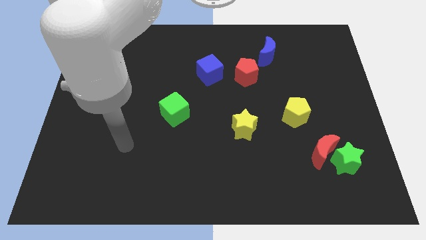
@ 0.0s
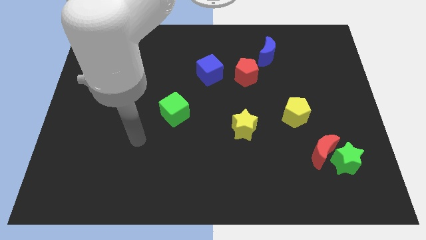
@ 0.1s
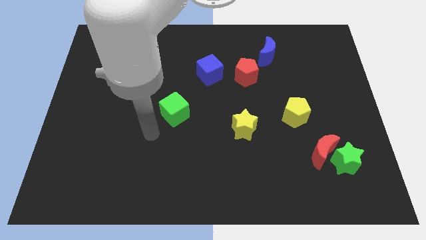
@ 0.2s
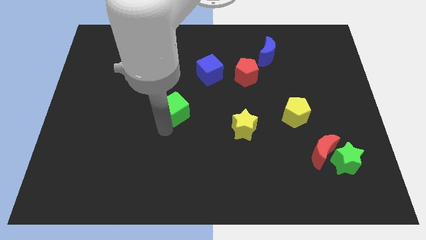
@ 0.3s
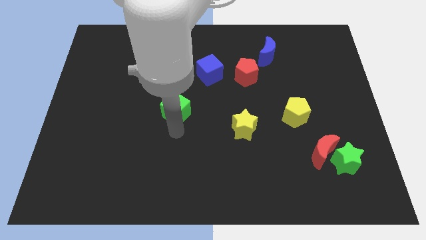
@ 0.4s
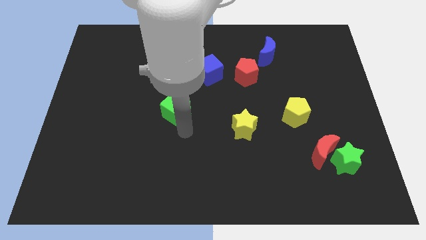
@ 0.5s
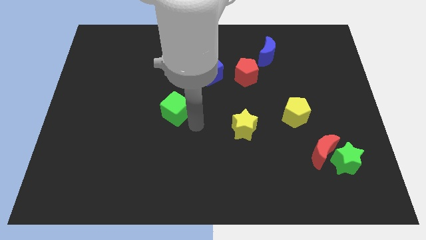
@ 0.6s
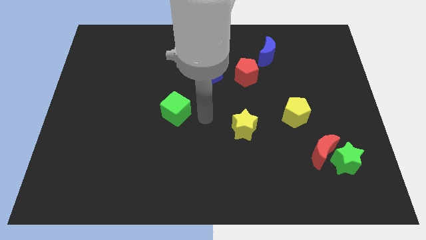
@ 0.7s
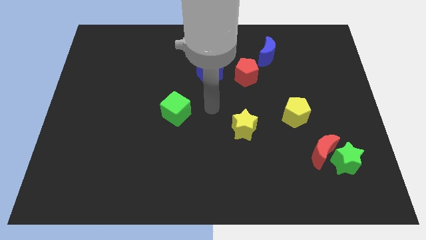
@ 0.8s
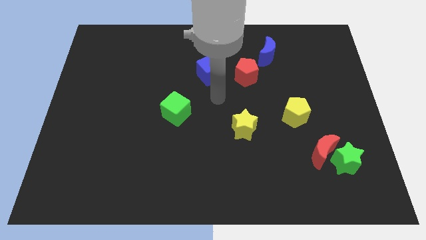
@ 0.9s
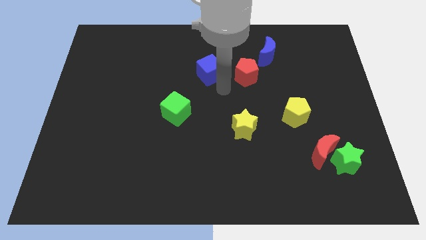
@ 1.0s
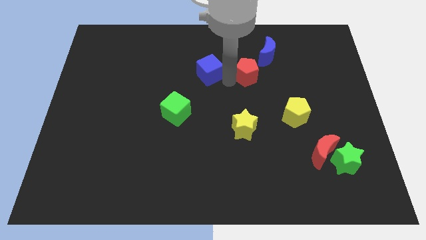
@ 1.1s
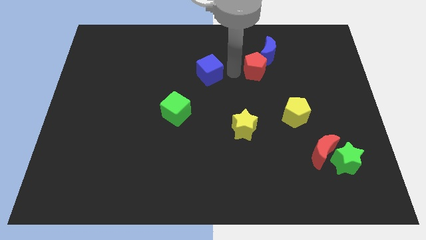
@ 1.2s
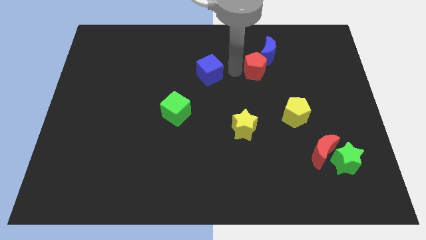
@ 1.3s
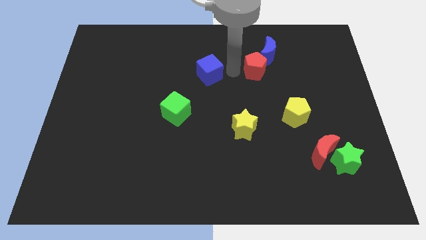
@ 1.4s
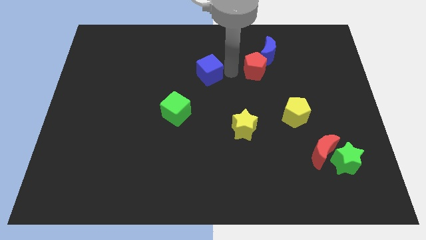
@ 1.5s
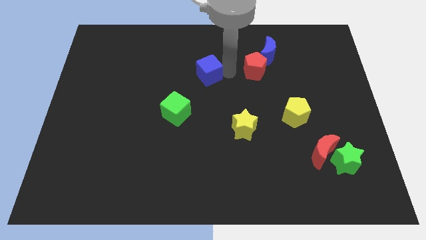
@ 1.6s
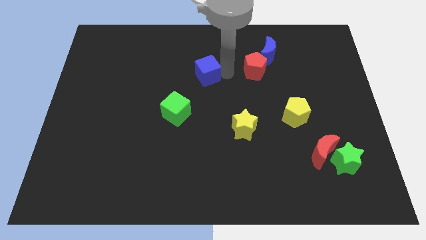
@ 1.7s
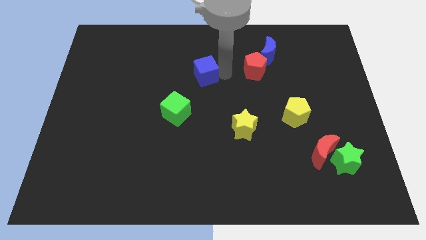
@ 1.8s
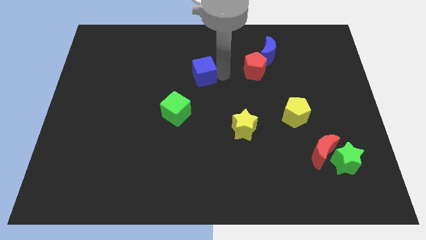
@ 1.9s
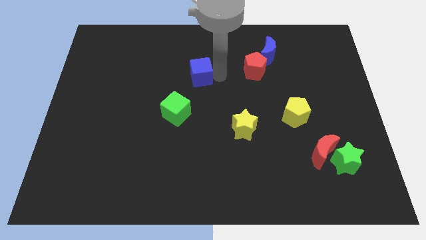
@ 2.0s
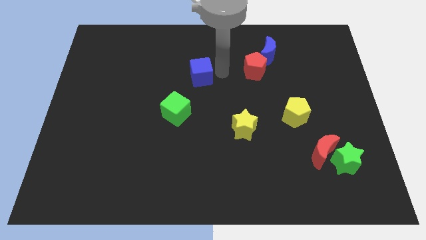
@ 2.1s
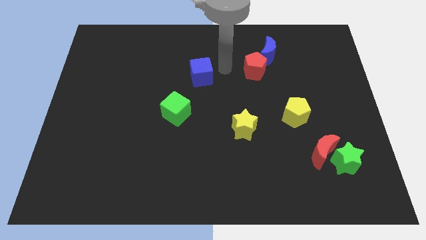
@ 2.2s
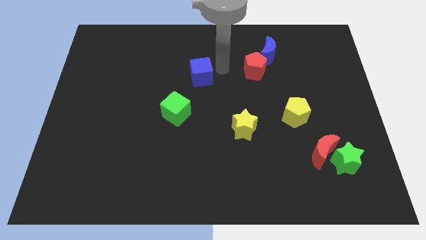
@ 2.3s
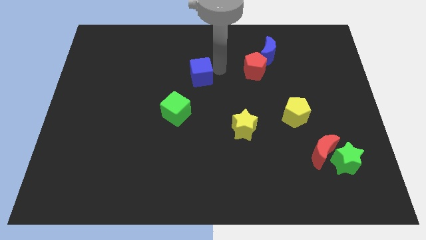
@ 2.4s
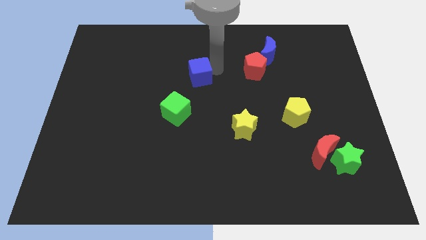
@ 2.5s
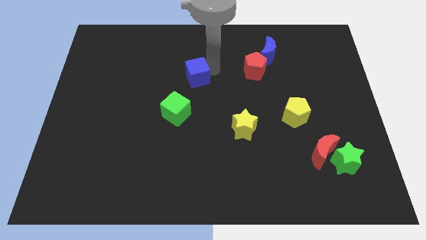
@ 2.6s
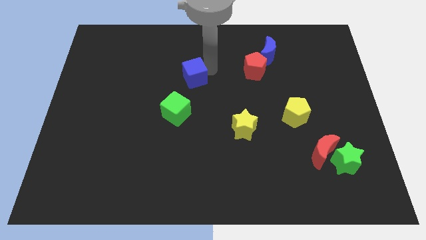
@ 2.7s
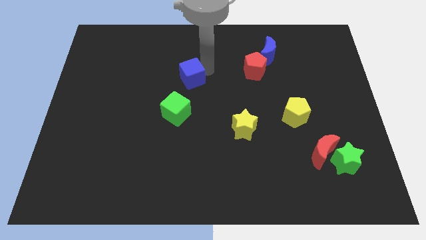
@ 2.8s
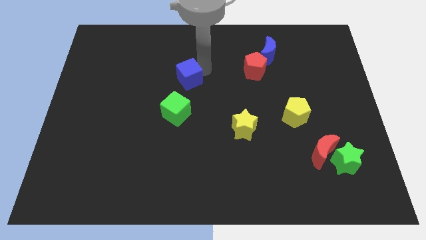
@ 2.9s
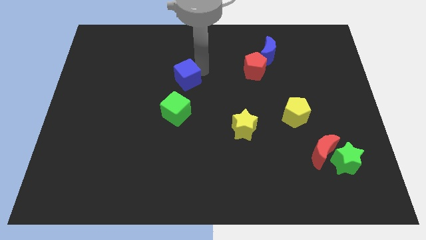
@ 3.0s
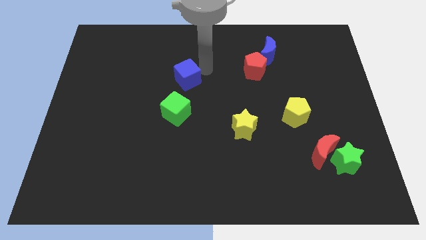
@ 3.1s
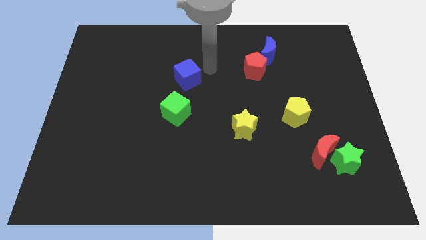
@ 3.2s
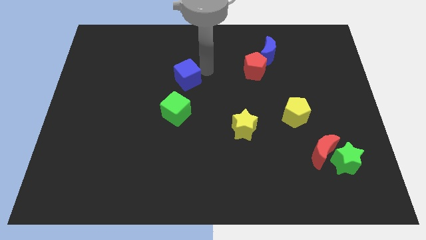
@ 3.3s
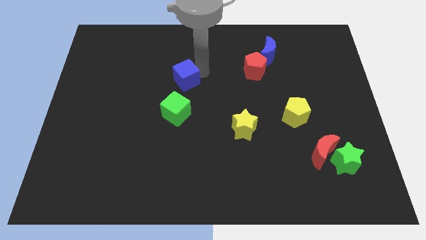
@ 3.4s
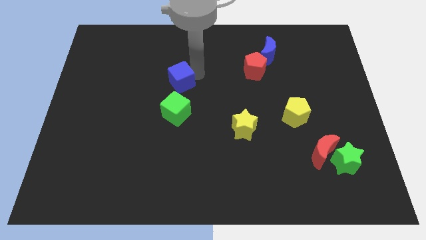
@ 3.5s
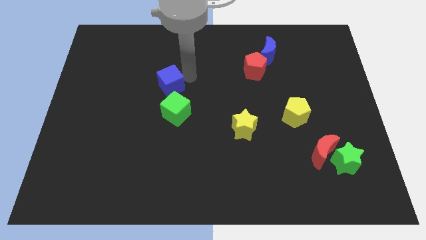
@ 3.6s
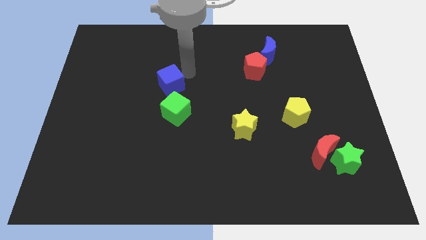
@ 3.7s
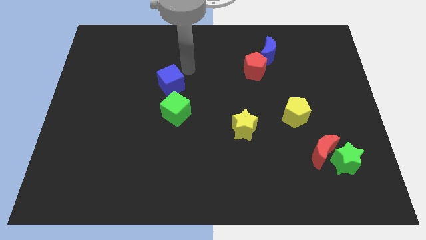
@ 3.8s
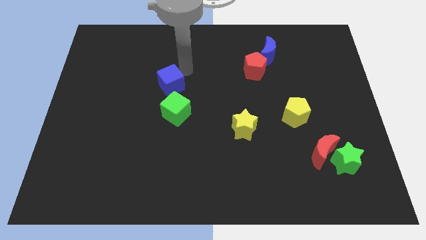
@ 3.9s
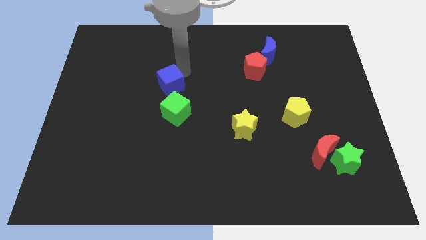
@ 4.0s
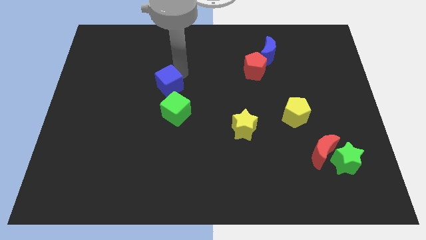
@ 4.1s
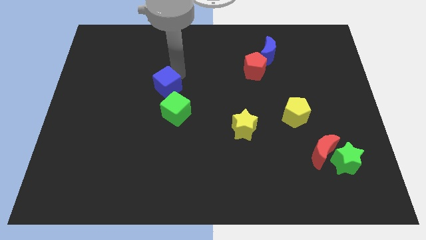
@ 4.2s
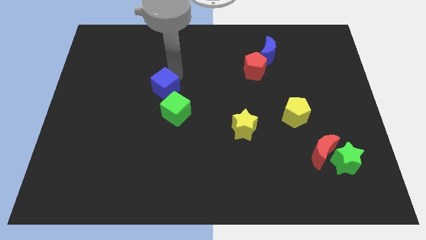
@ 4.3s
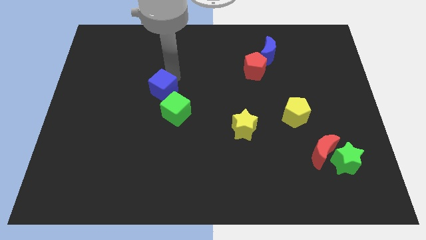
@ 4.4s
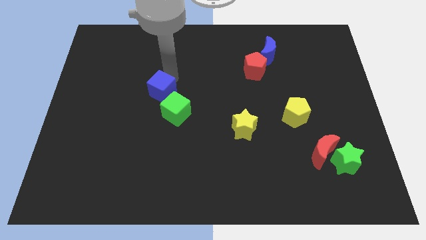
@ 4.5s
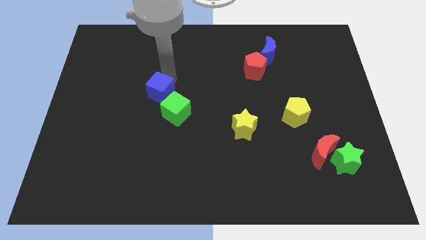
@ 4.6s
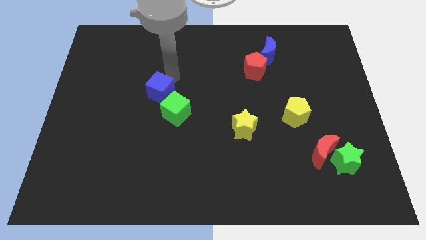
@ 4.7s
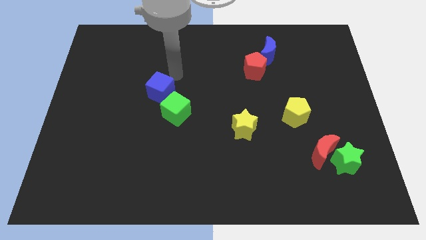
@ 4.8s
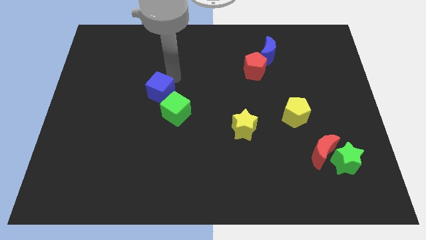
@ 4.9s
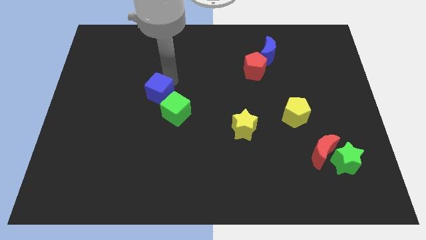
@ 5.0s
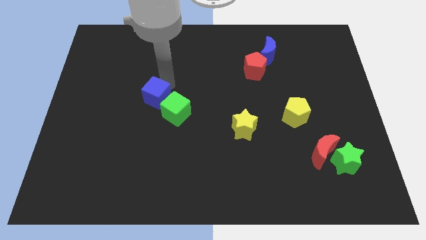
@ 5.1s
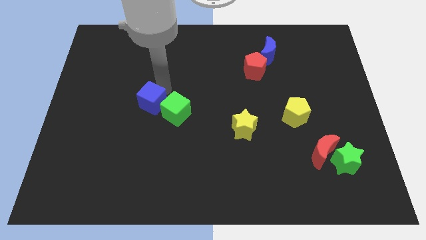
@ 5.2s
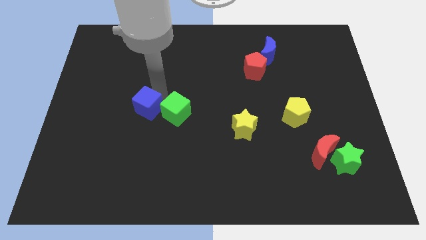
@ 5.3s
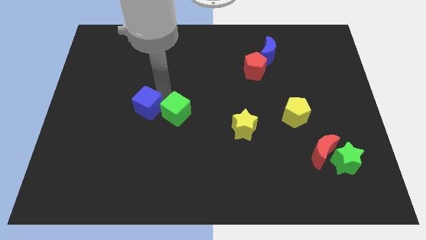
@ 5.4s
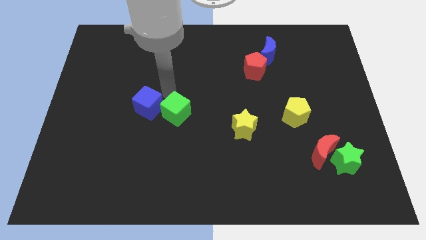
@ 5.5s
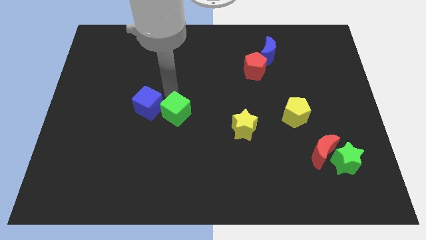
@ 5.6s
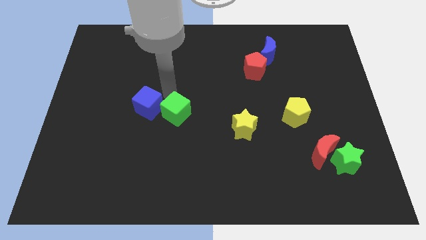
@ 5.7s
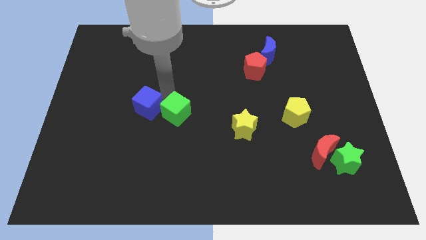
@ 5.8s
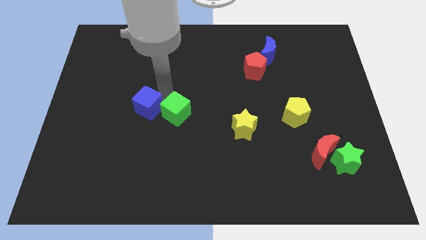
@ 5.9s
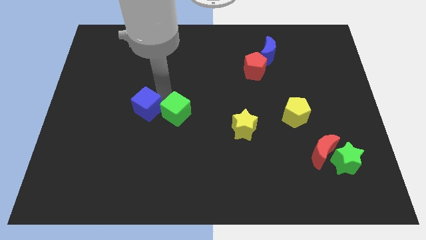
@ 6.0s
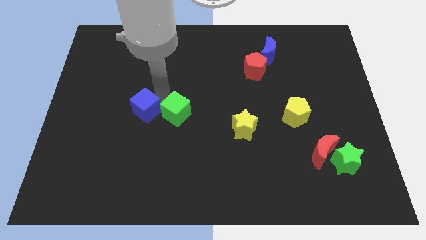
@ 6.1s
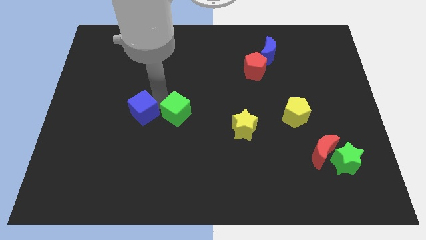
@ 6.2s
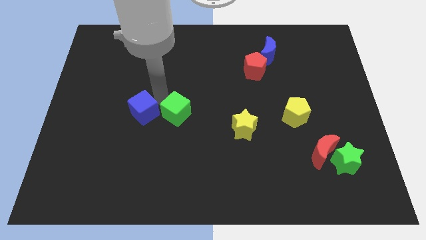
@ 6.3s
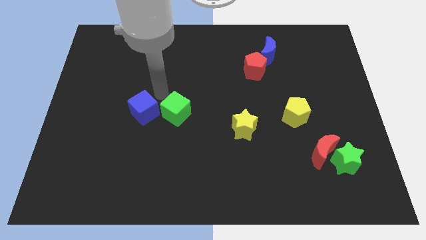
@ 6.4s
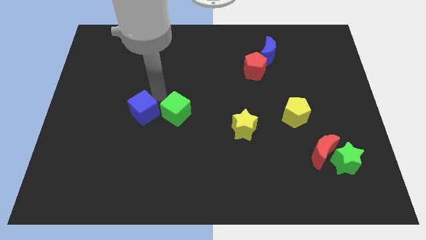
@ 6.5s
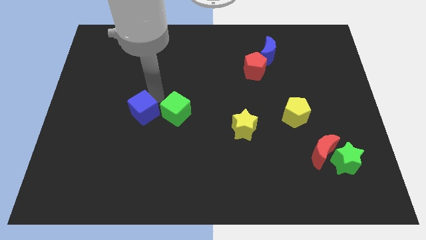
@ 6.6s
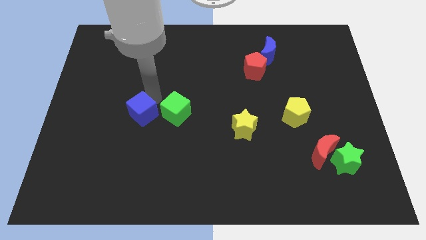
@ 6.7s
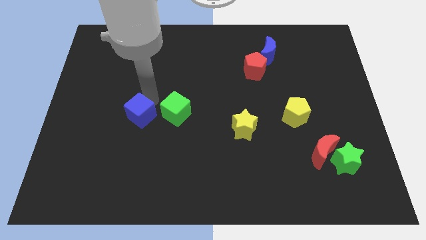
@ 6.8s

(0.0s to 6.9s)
slide the blue cube downwards and left

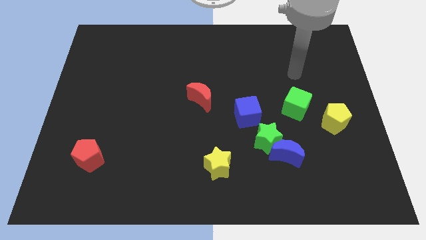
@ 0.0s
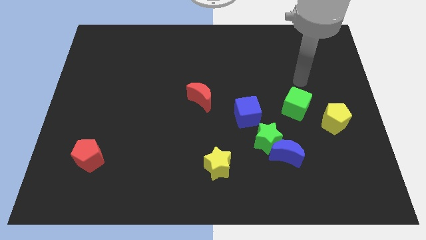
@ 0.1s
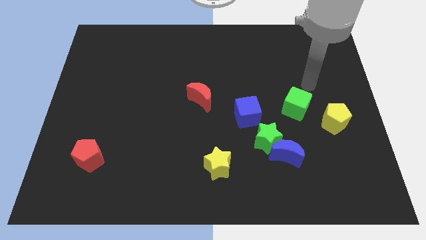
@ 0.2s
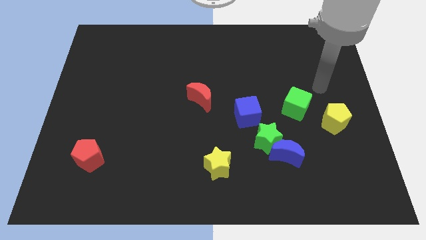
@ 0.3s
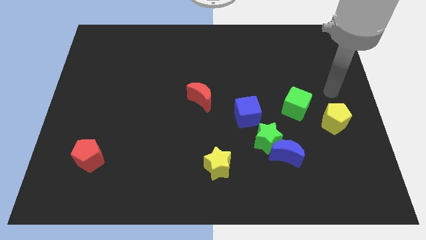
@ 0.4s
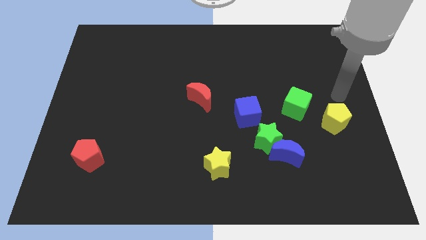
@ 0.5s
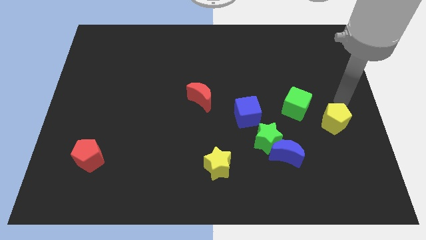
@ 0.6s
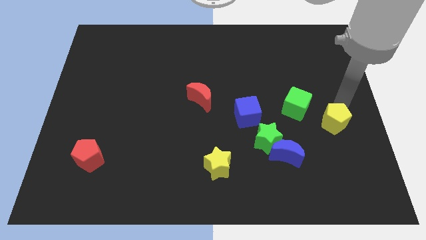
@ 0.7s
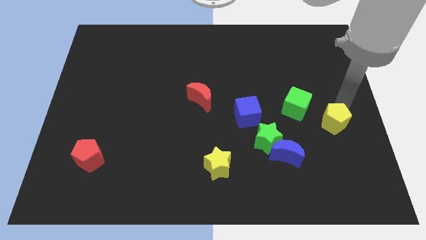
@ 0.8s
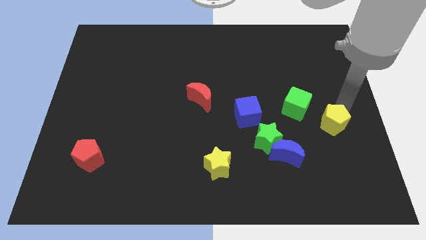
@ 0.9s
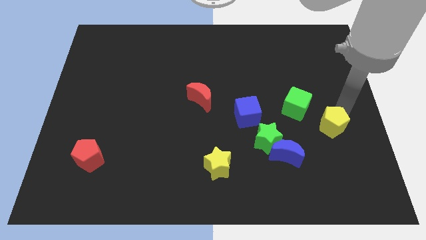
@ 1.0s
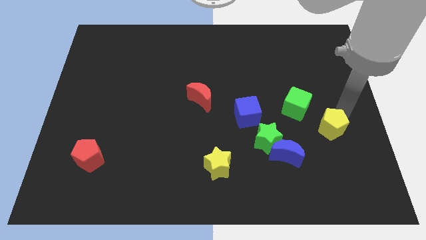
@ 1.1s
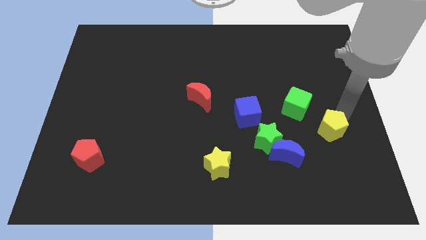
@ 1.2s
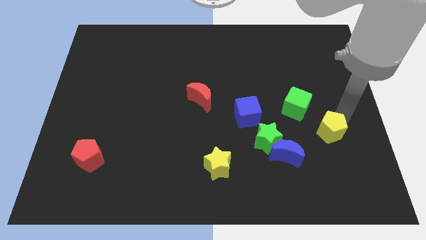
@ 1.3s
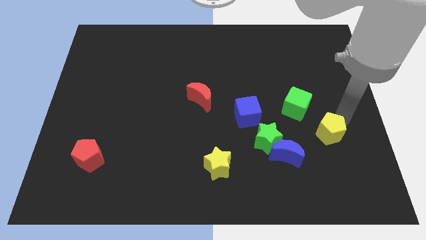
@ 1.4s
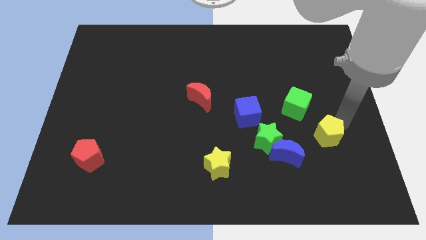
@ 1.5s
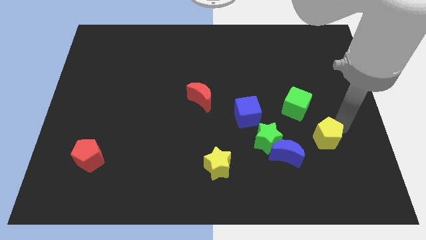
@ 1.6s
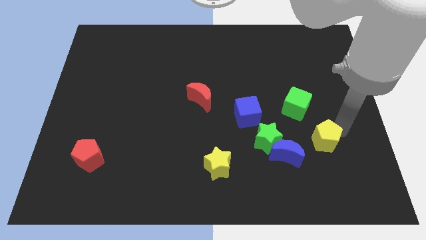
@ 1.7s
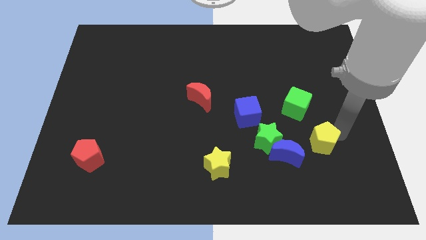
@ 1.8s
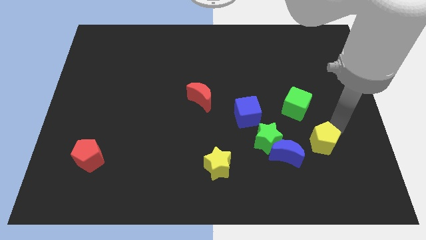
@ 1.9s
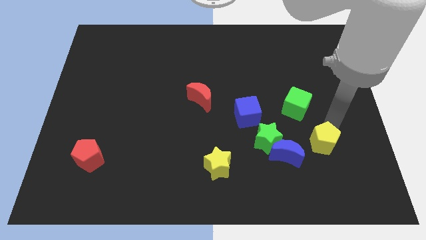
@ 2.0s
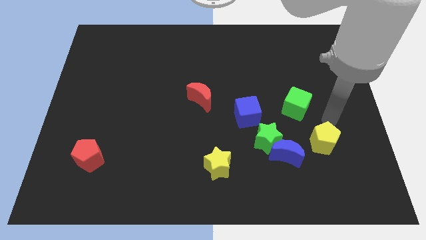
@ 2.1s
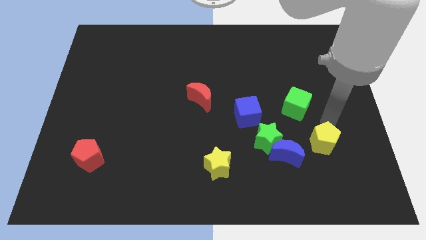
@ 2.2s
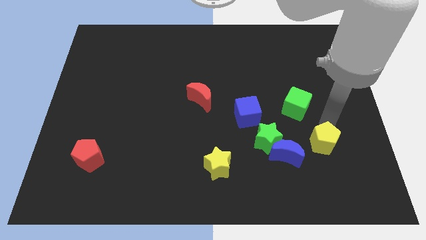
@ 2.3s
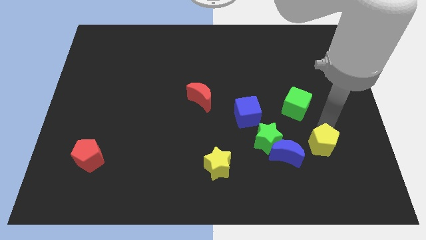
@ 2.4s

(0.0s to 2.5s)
slightly slide the yellow pentagon down and left
